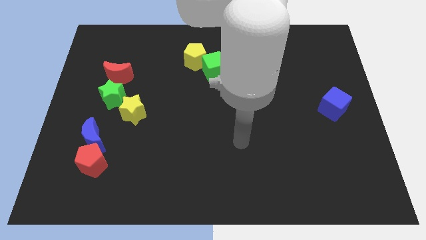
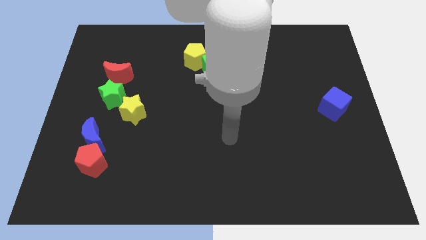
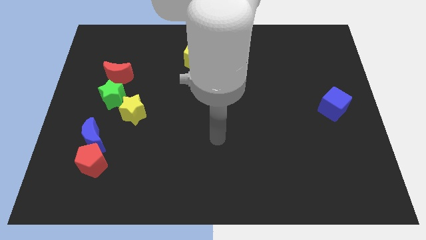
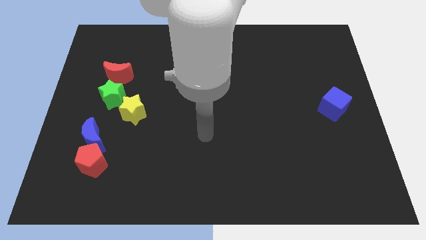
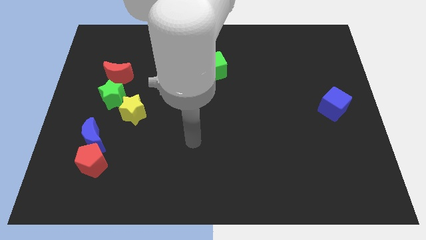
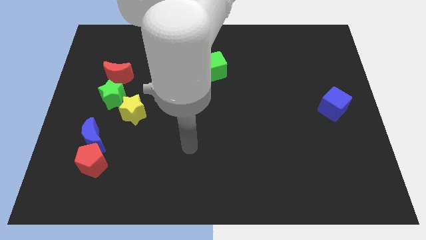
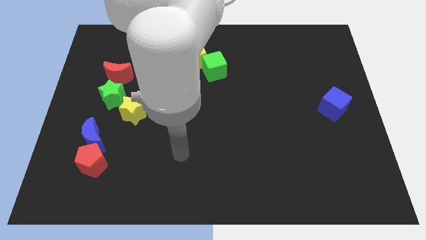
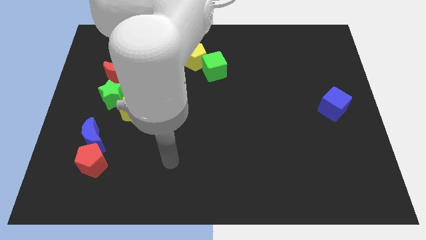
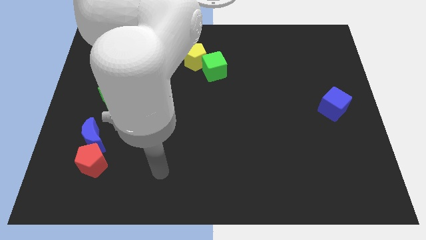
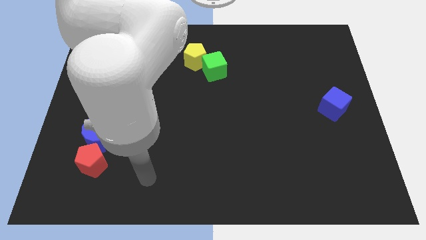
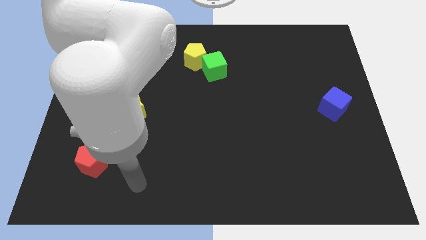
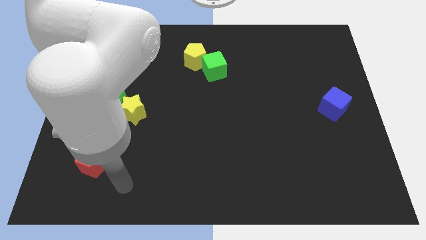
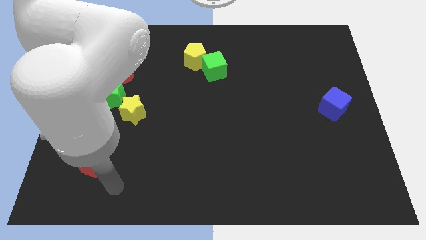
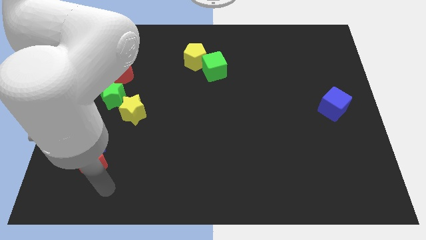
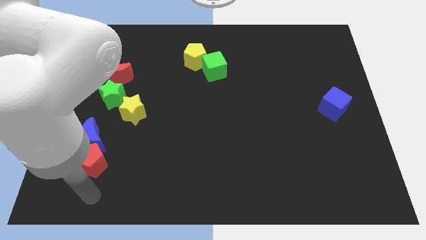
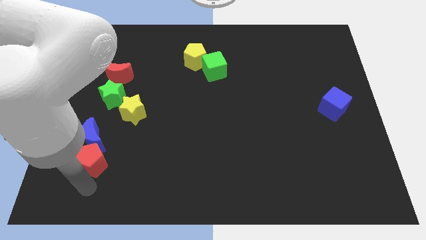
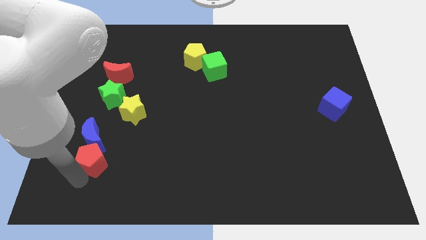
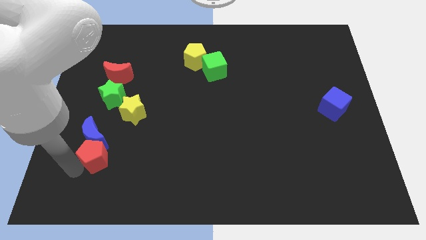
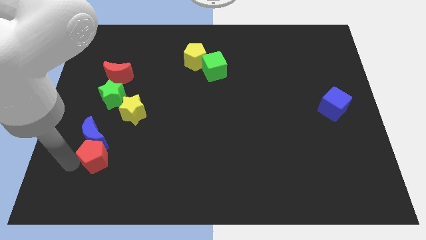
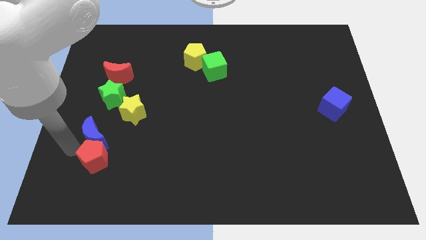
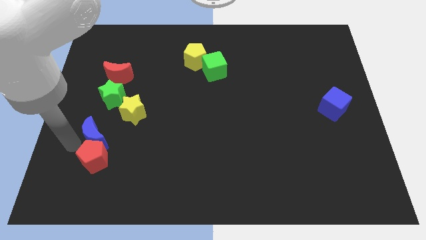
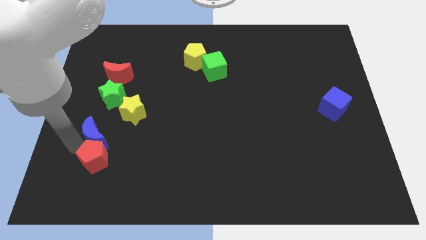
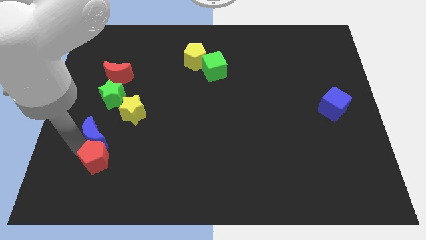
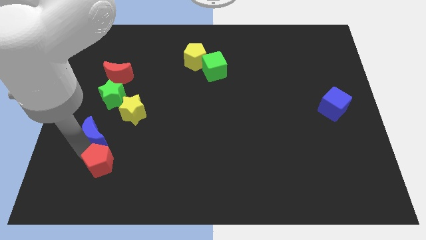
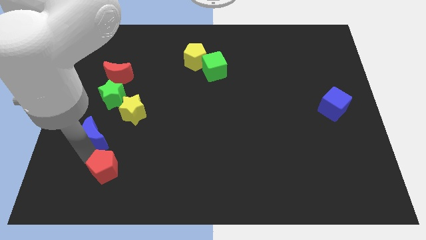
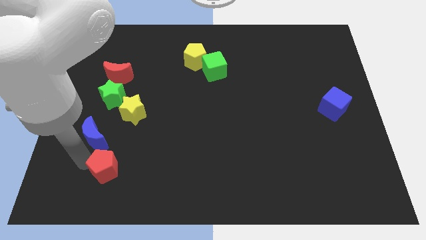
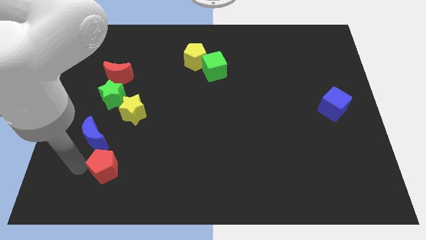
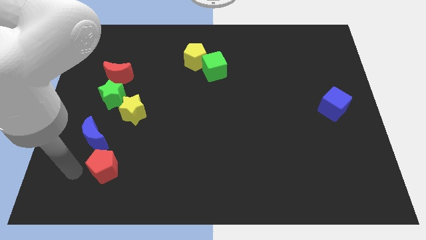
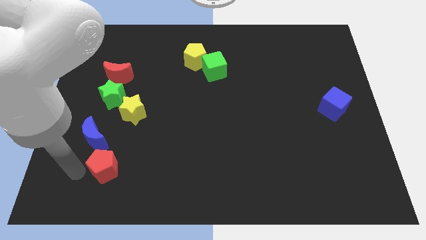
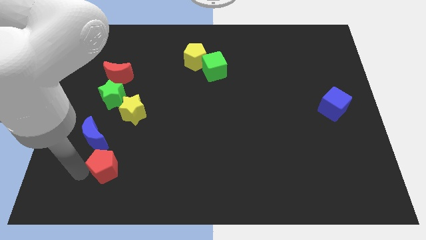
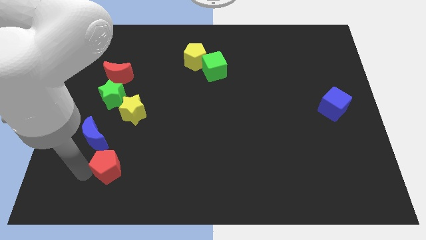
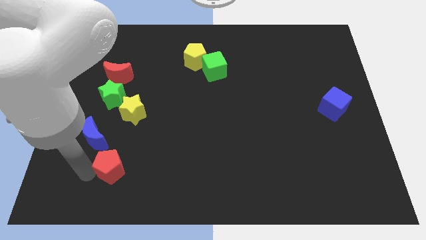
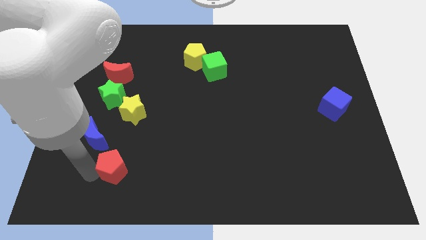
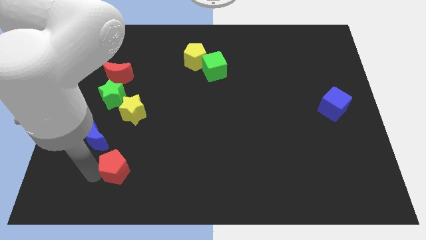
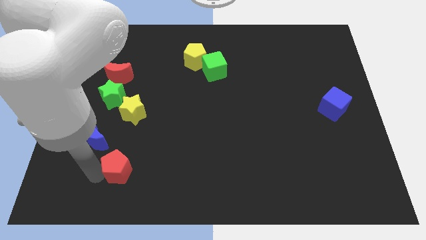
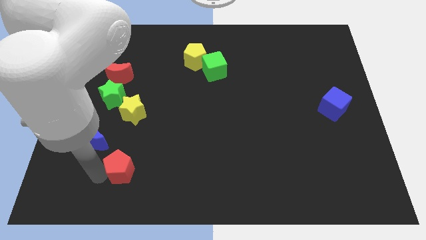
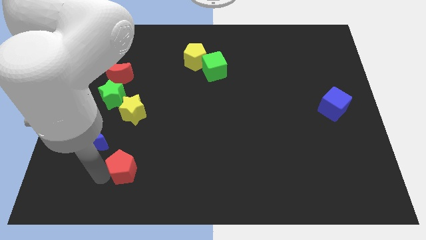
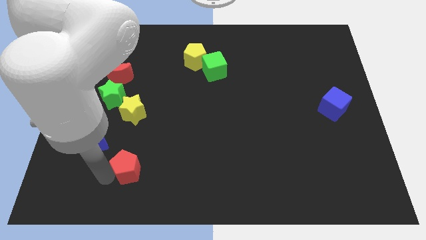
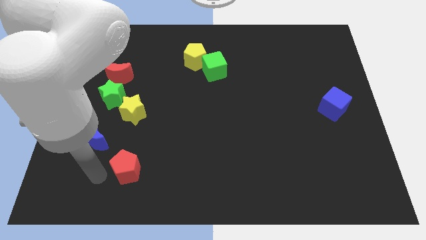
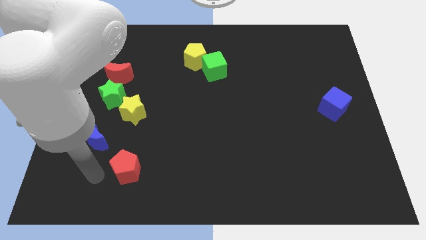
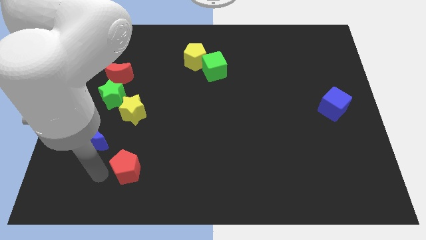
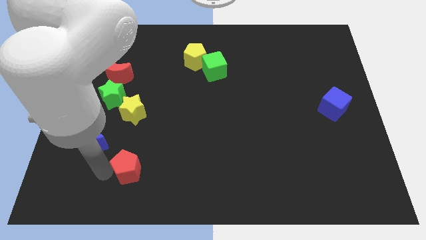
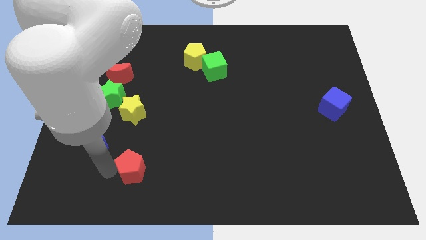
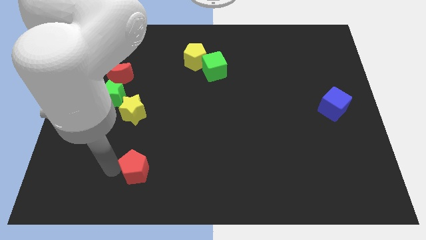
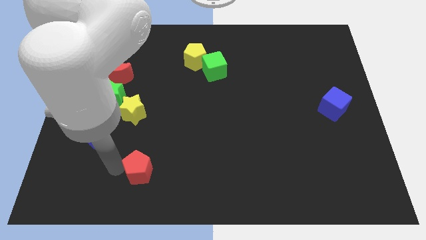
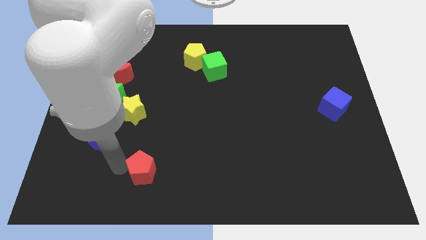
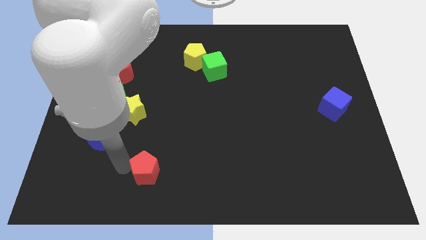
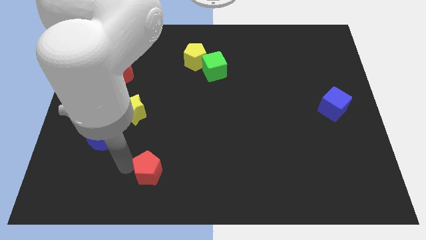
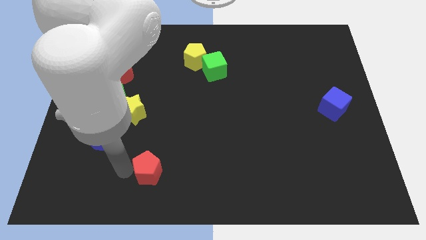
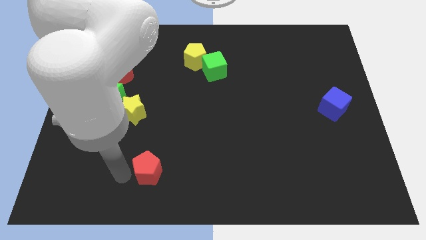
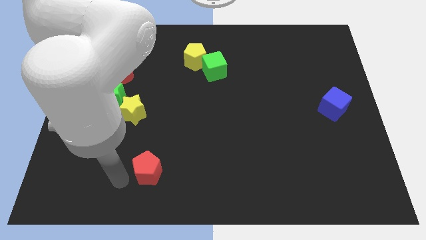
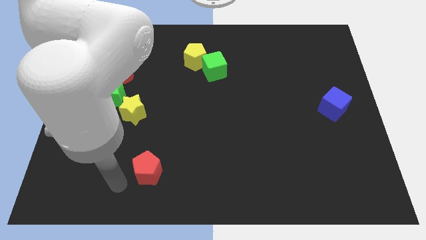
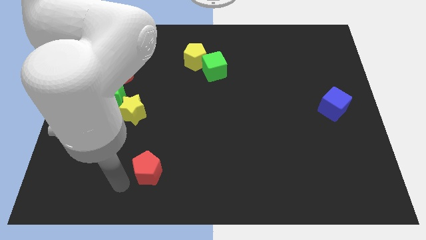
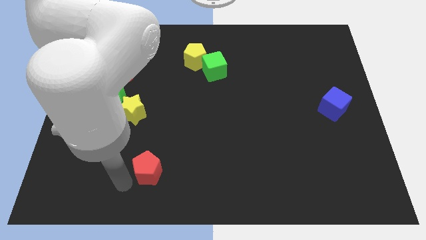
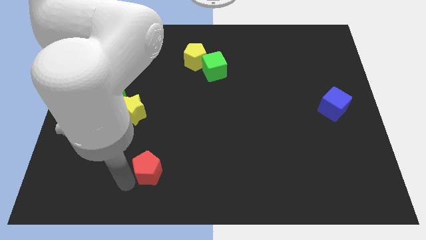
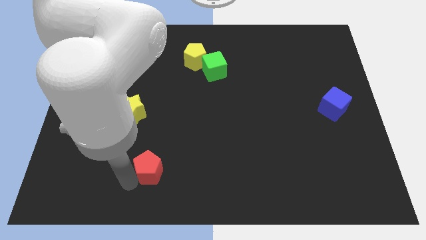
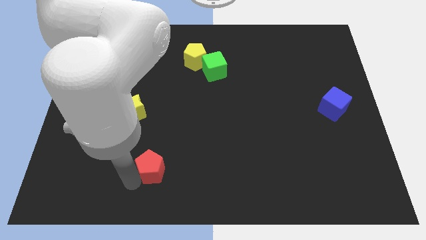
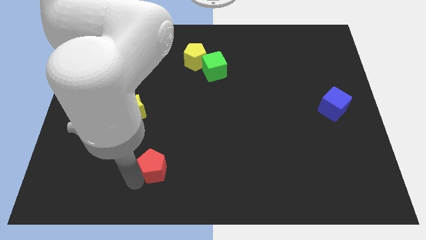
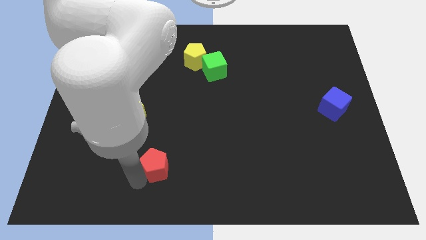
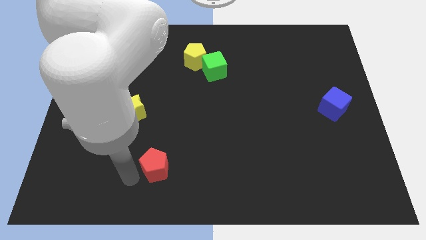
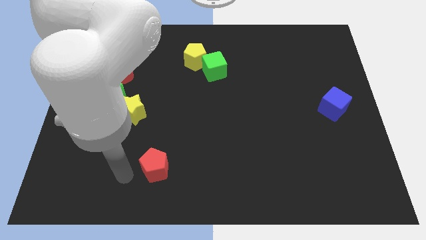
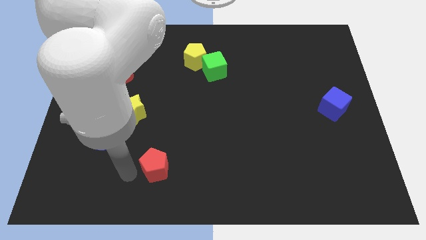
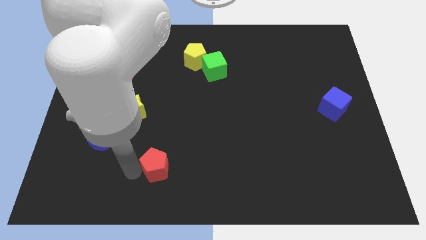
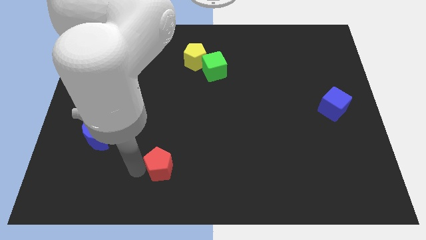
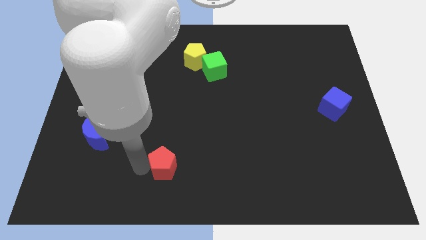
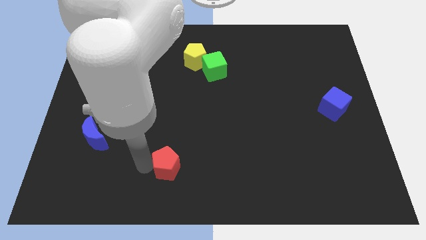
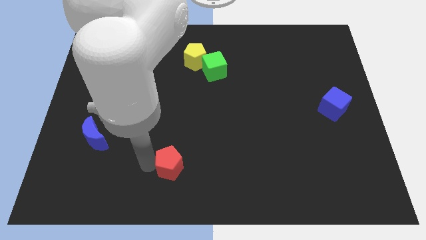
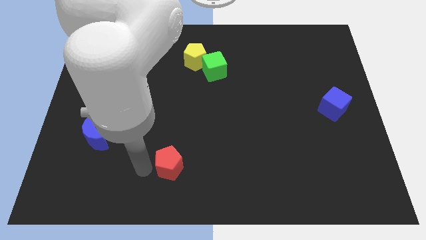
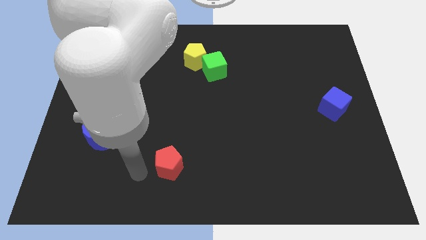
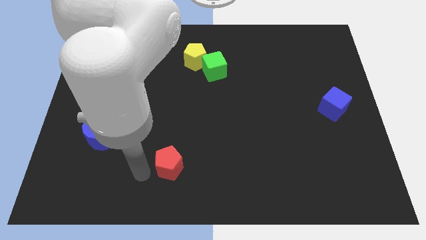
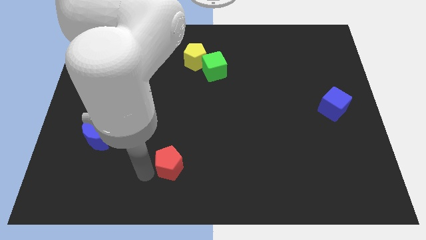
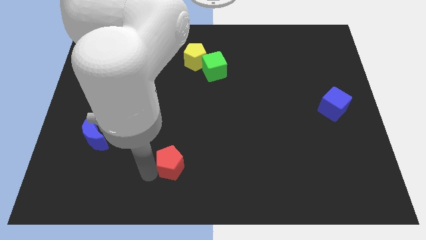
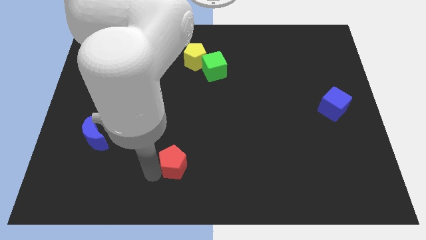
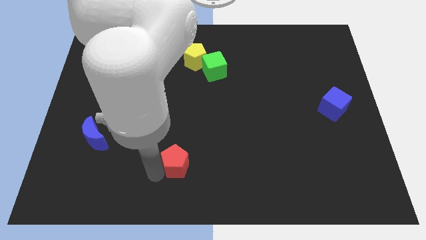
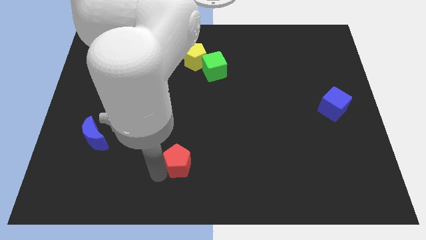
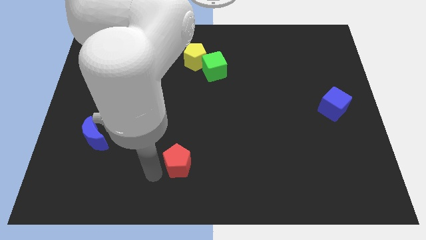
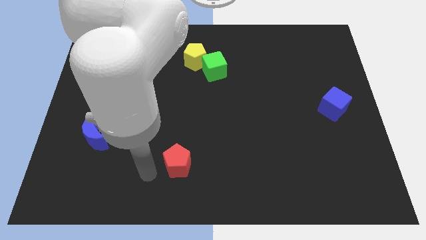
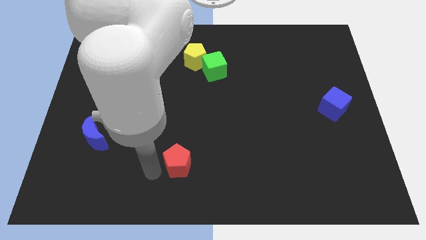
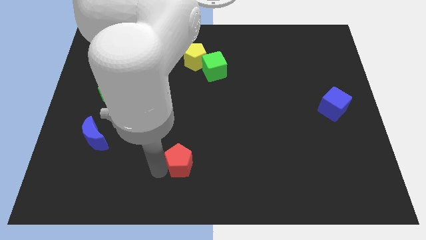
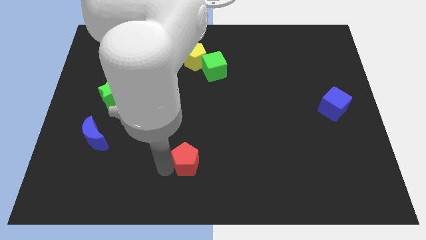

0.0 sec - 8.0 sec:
slide the red pentagon right
